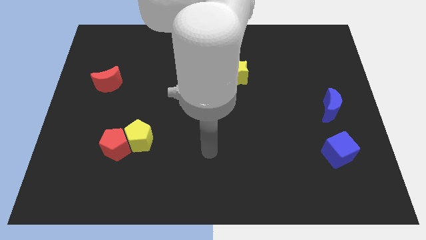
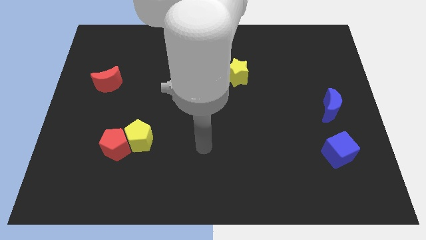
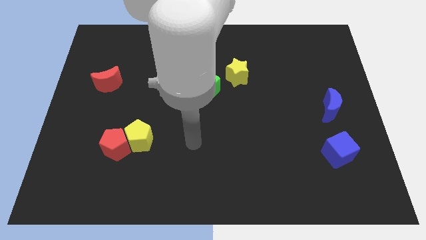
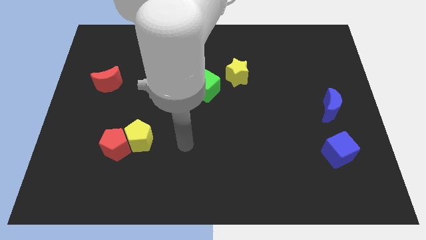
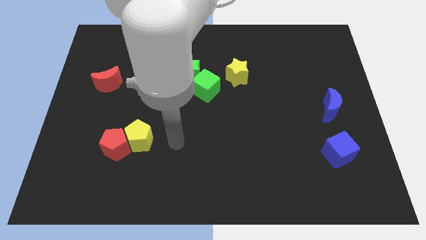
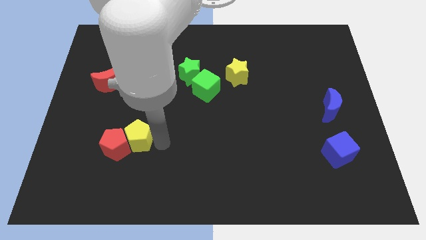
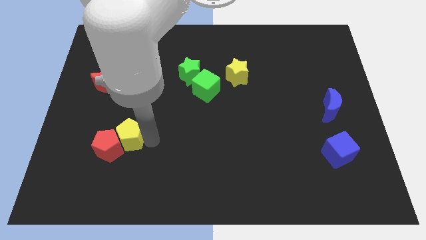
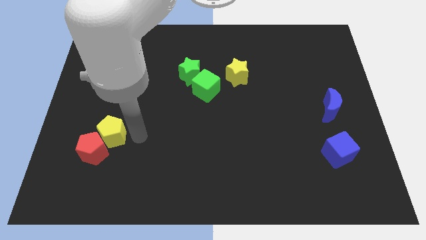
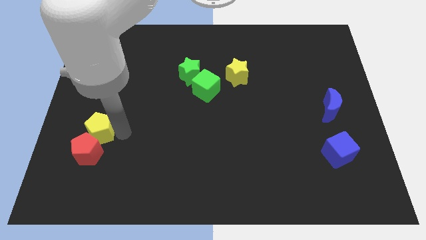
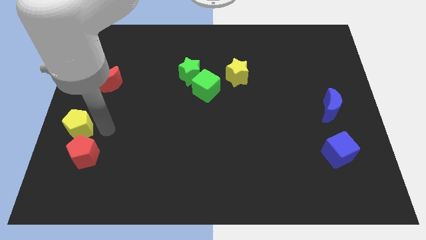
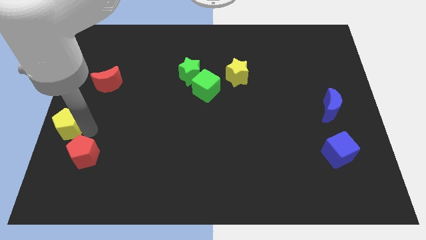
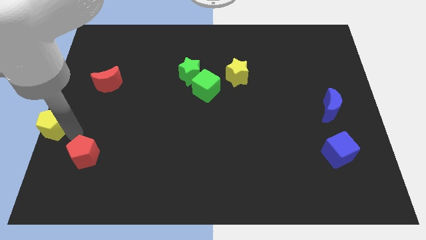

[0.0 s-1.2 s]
separate the red pentagon from the yellow pentagon

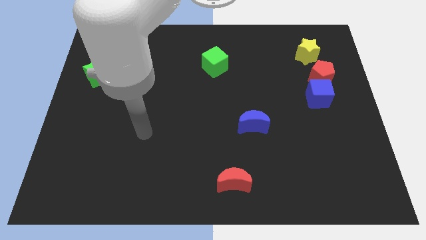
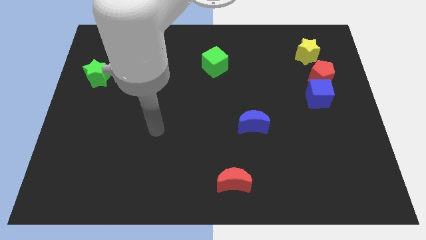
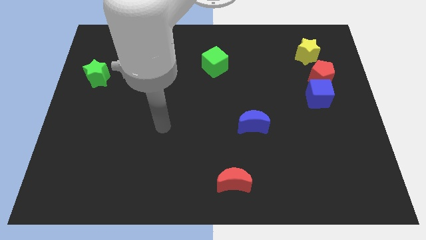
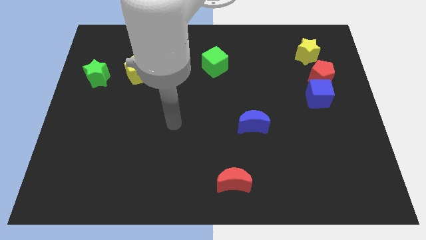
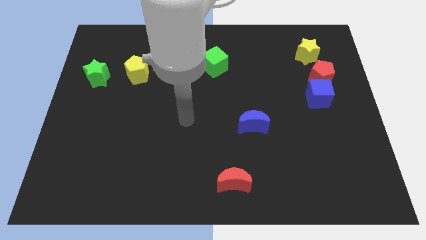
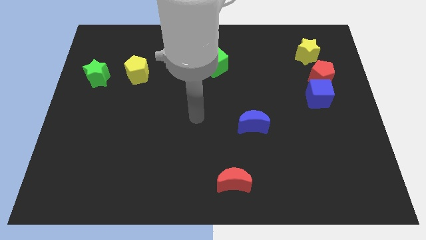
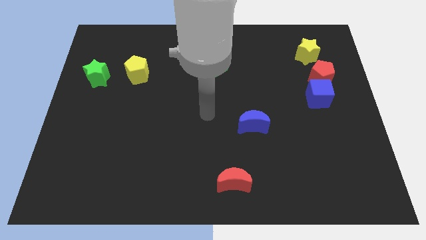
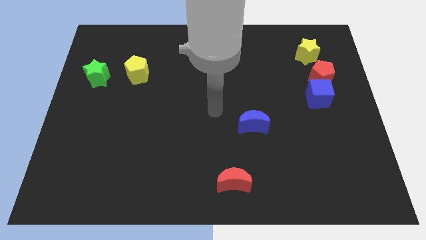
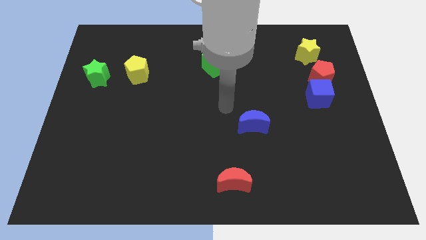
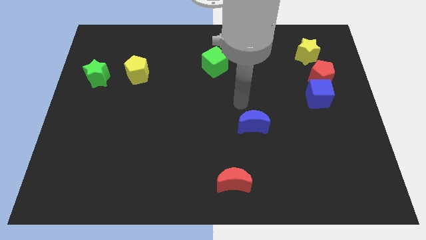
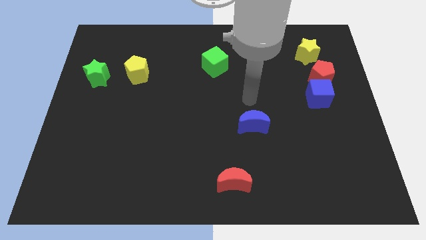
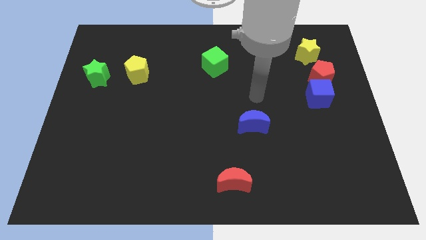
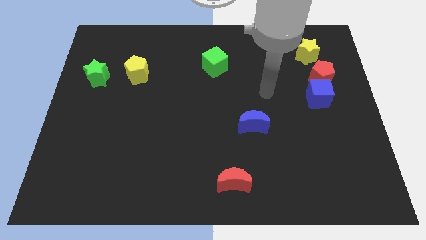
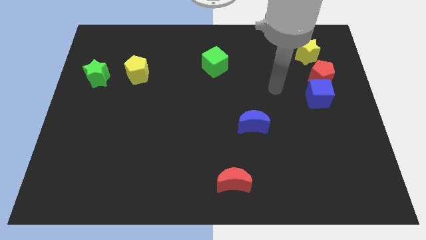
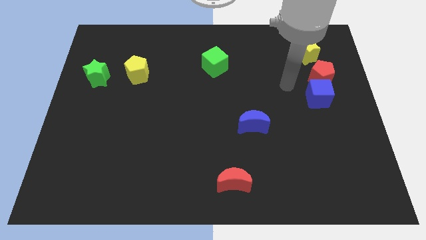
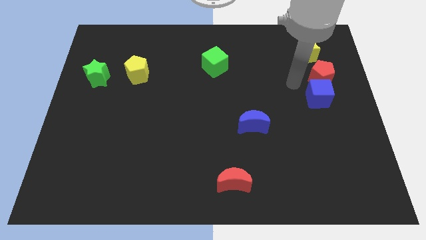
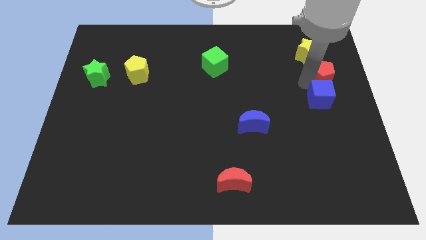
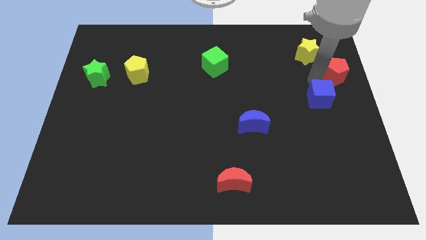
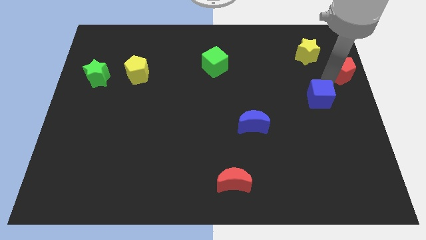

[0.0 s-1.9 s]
move the blue cube away from the red pentagon

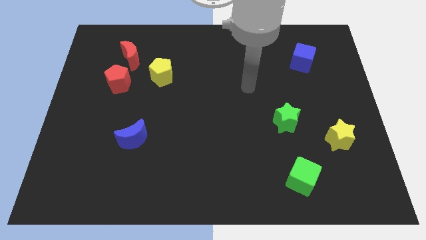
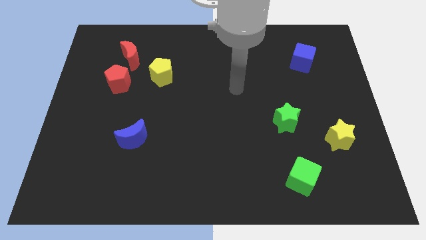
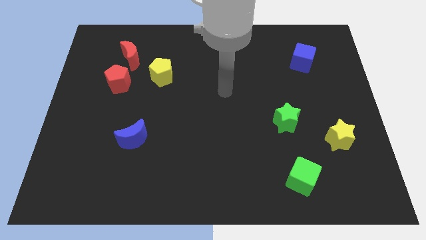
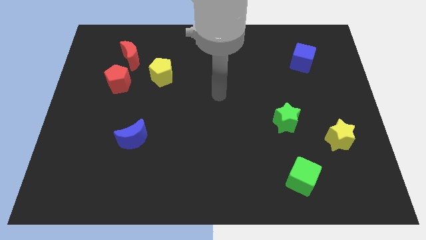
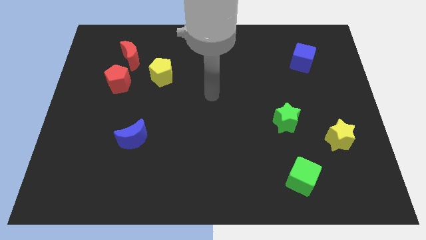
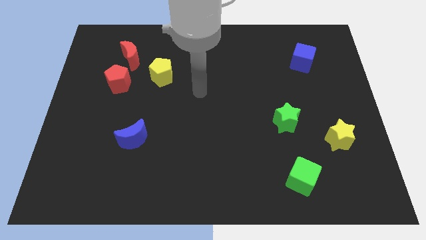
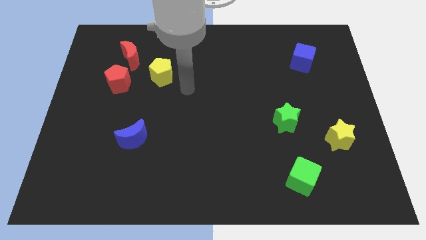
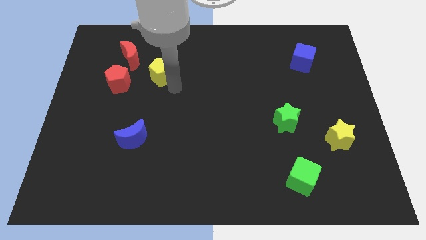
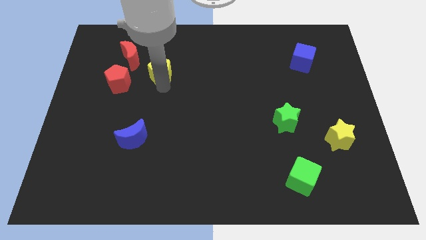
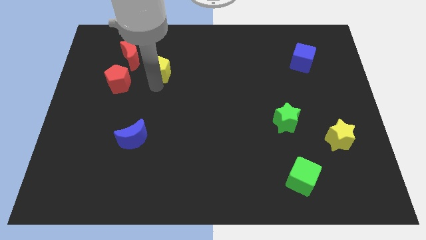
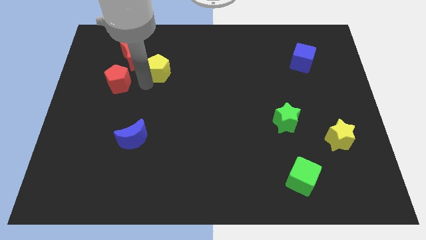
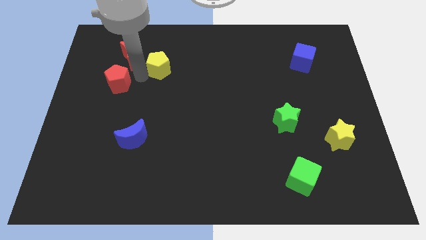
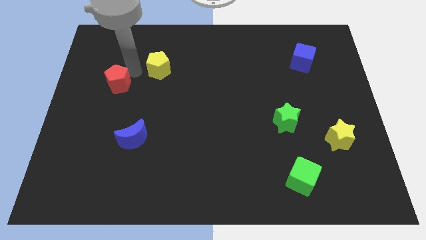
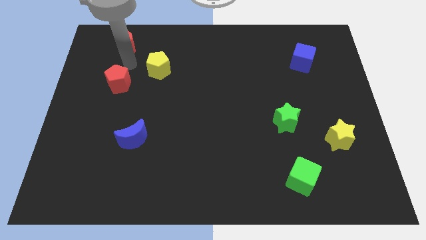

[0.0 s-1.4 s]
separate the red pentagon from the red moon

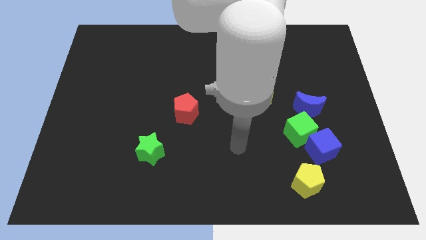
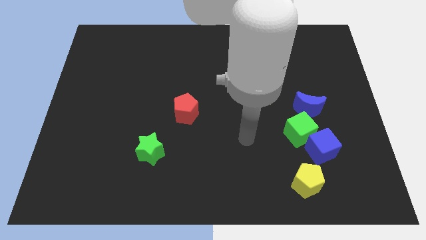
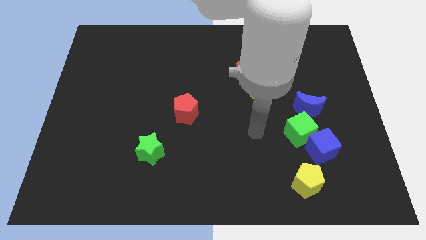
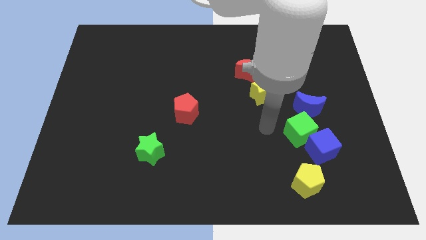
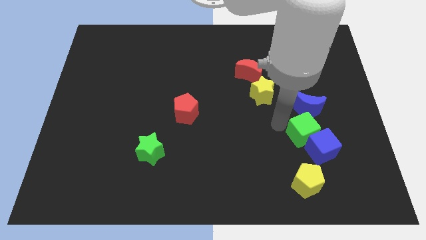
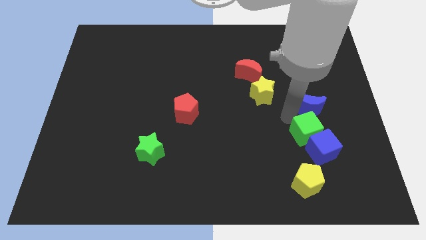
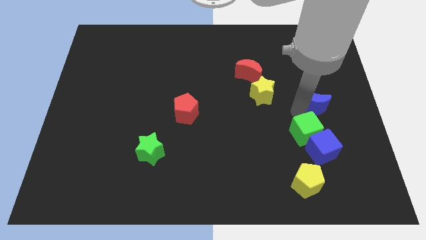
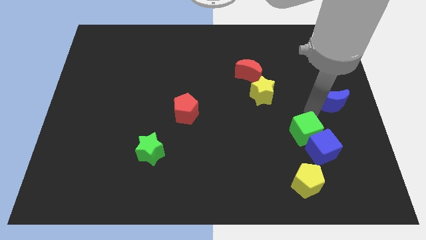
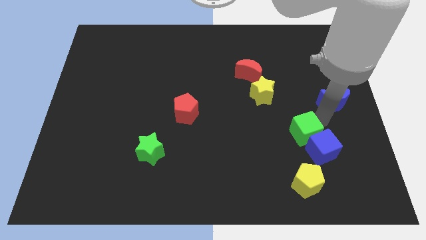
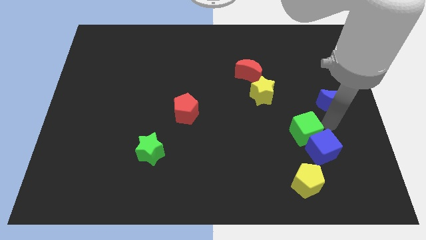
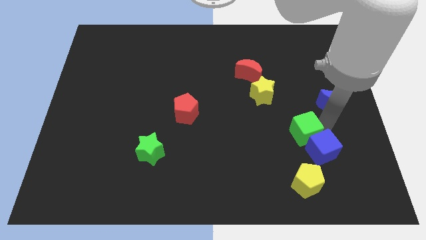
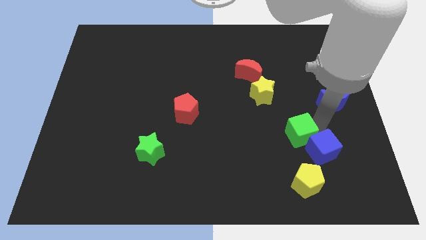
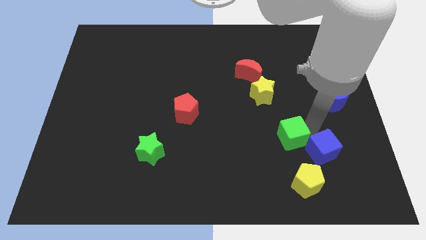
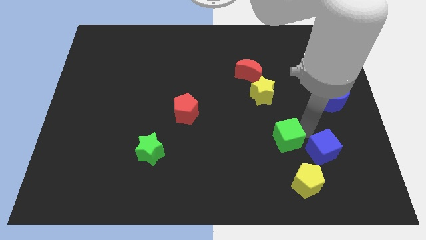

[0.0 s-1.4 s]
move the green cube away from the blue cube and blue moon

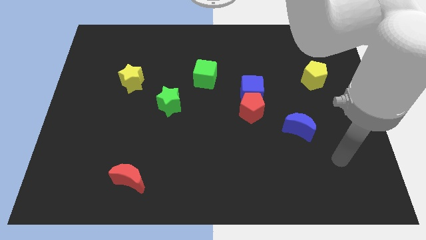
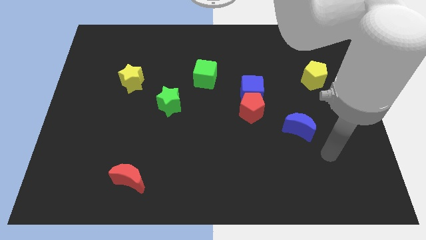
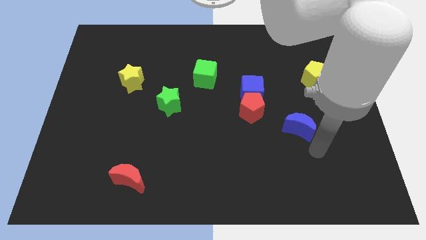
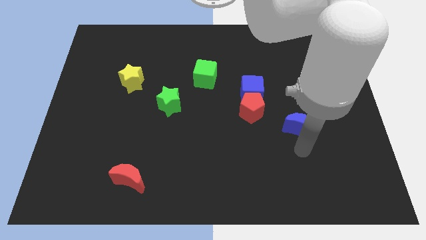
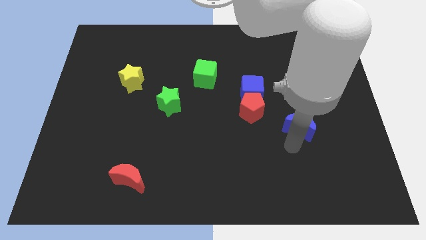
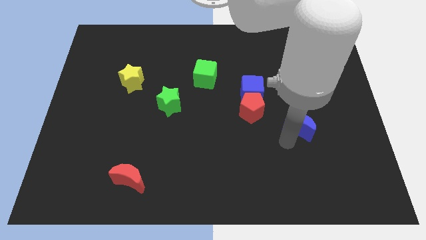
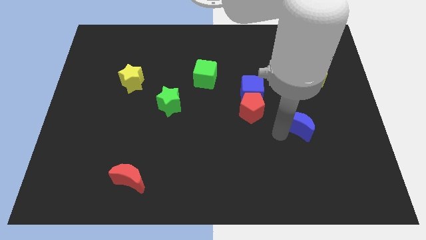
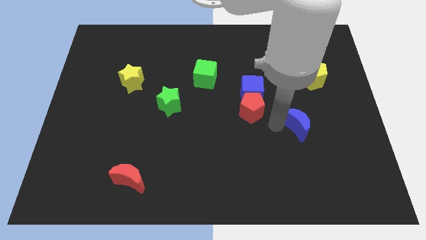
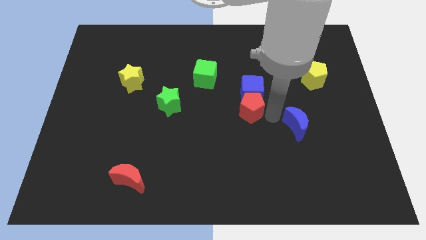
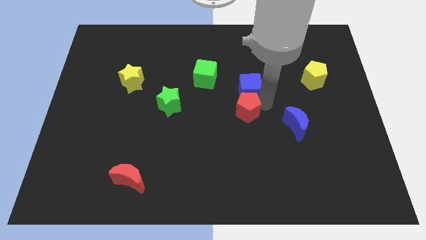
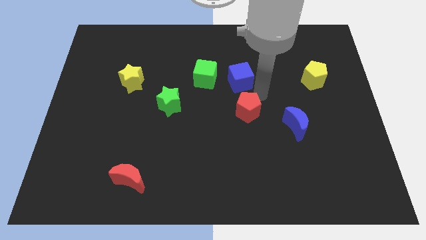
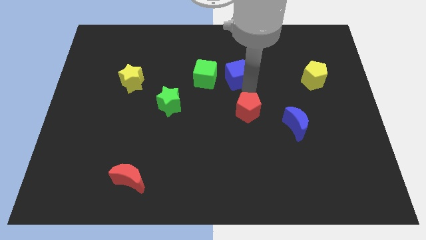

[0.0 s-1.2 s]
pull the red pentagon apart from the blue cube

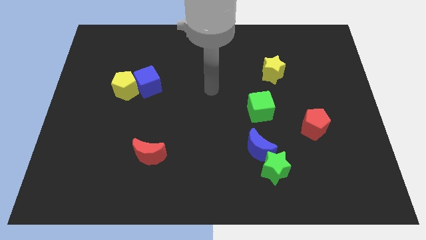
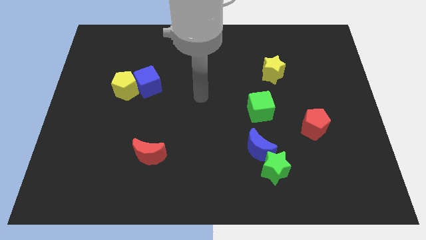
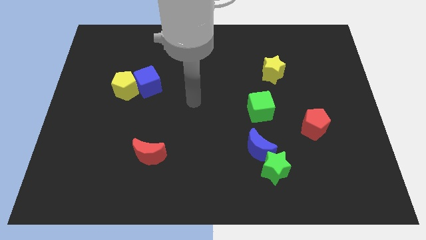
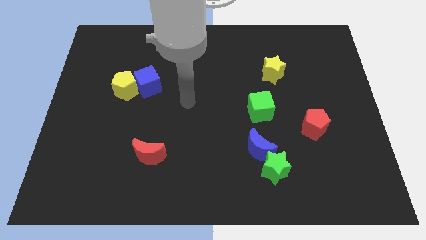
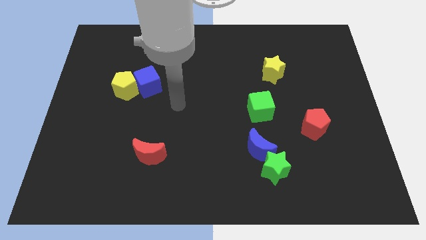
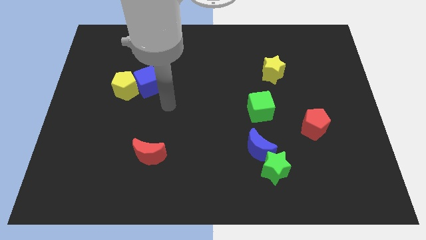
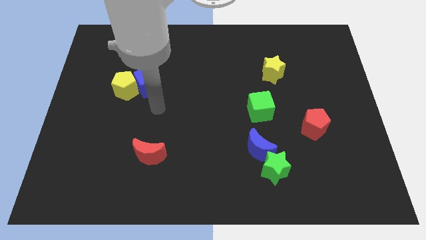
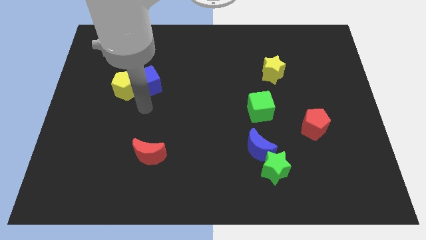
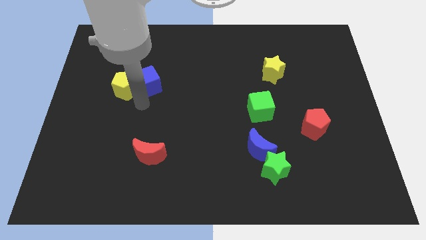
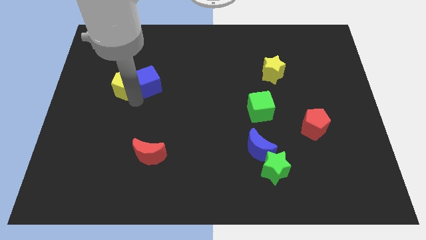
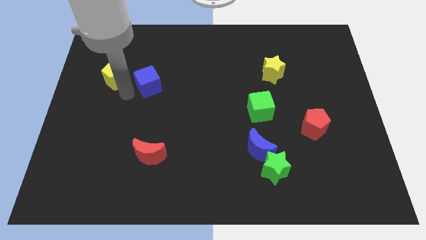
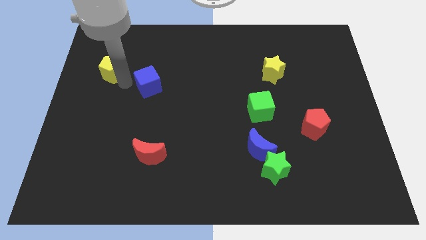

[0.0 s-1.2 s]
move the blue cube away from the yellow pentagon

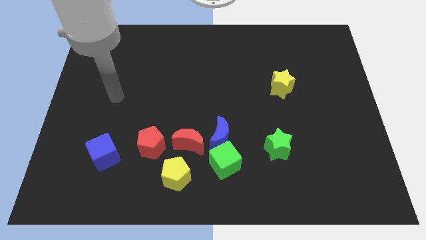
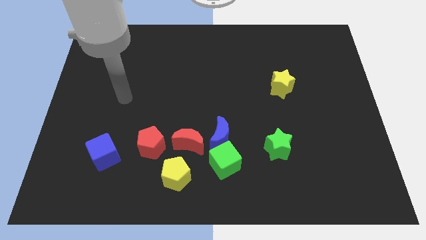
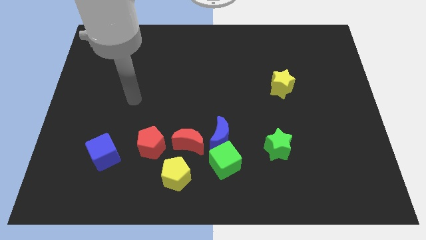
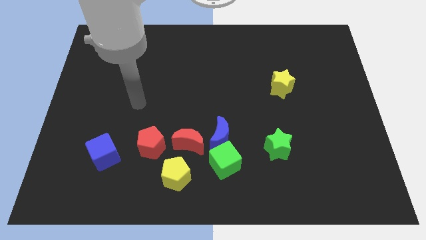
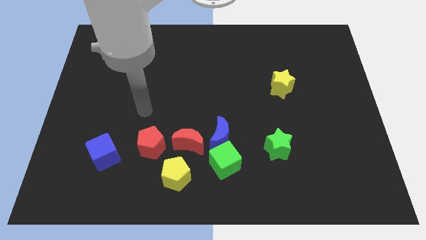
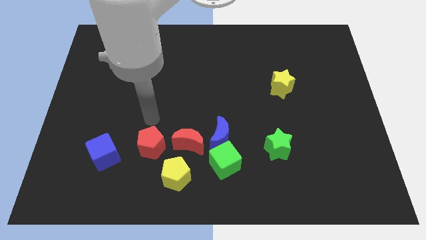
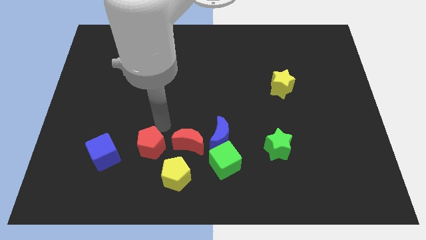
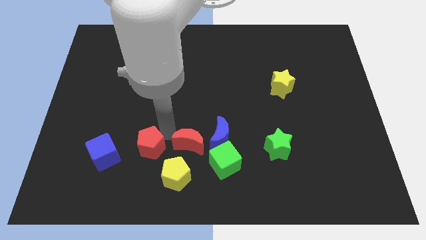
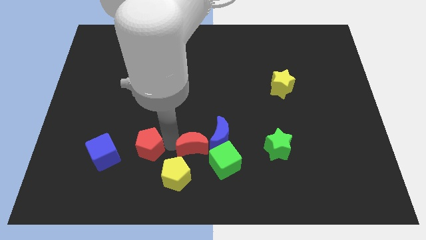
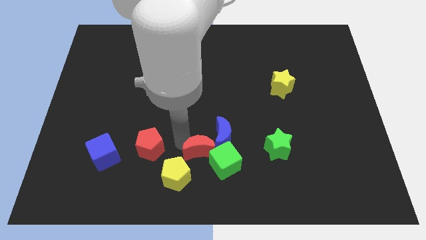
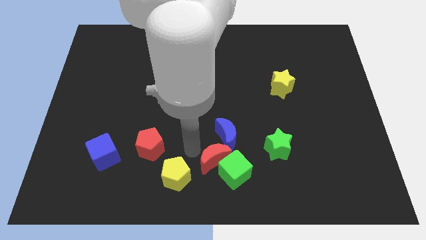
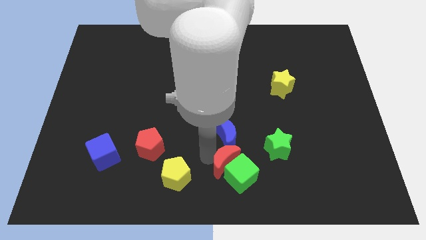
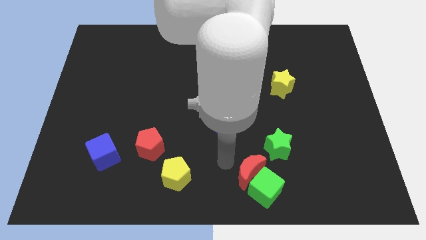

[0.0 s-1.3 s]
move the blue moon away from the green cube and red moon
